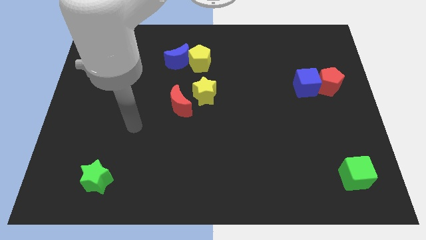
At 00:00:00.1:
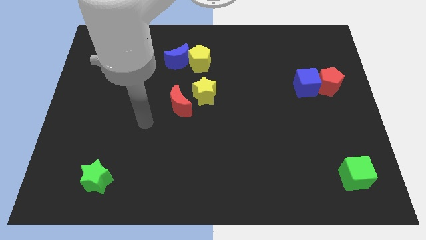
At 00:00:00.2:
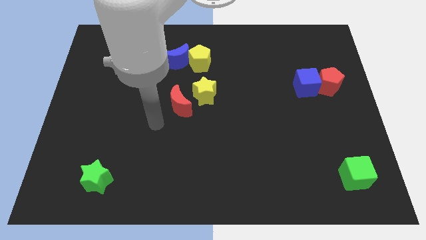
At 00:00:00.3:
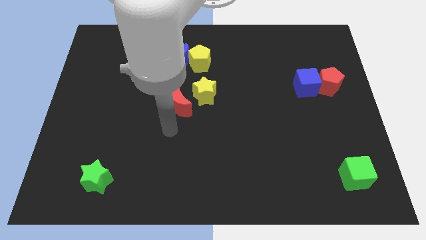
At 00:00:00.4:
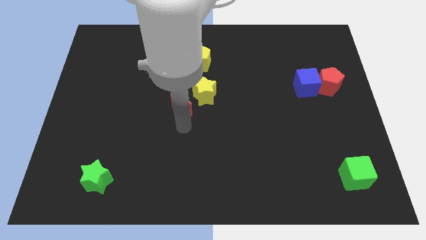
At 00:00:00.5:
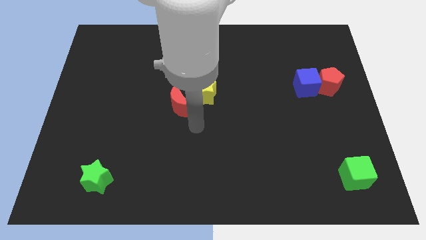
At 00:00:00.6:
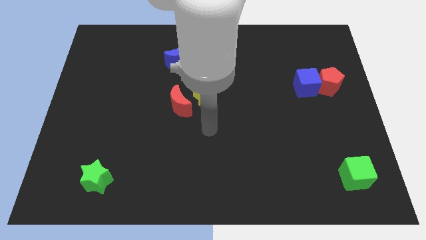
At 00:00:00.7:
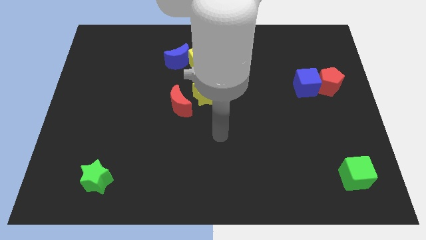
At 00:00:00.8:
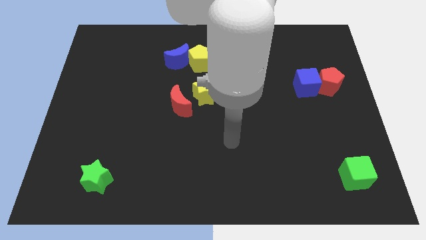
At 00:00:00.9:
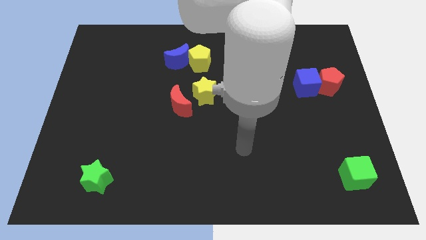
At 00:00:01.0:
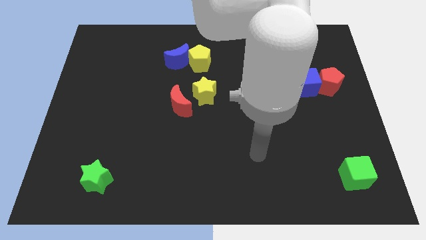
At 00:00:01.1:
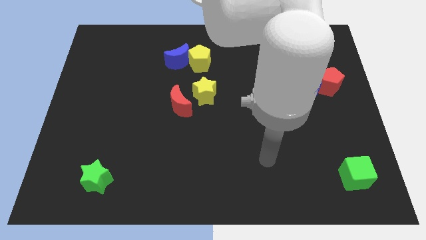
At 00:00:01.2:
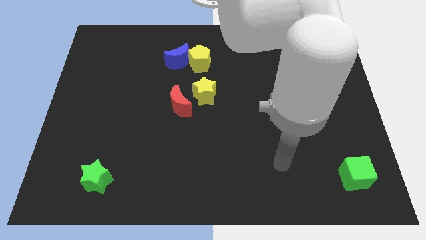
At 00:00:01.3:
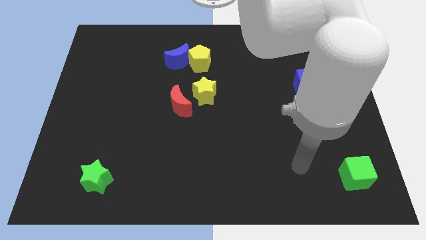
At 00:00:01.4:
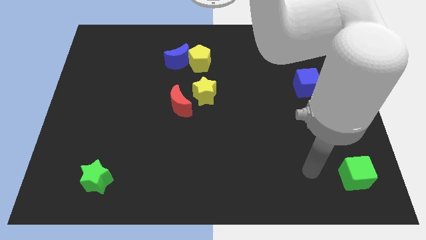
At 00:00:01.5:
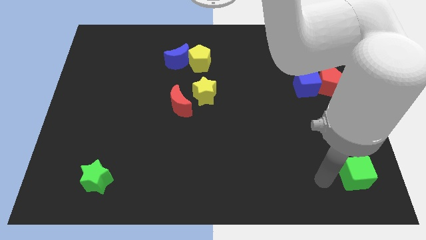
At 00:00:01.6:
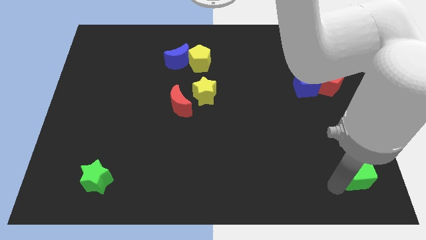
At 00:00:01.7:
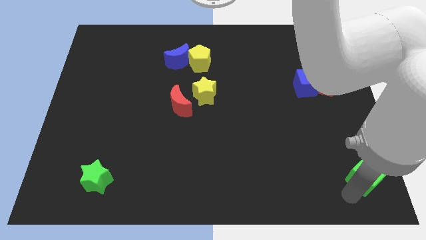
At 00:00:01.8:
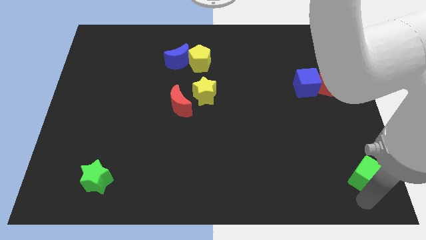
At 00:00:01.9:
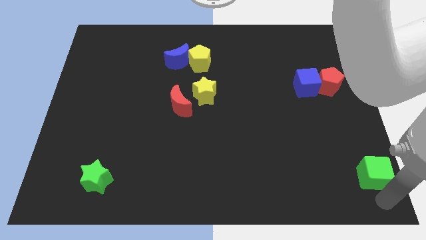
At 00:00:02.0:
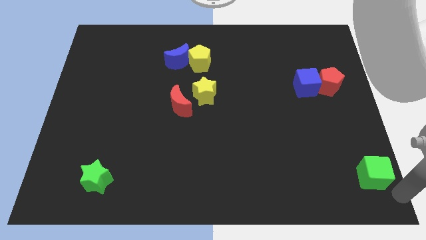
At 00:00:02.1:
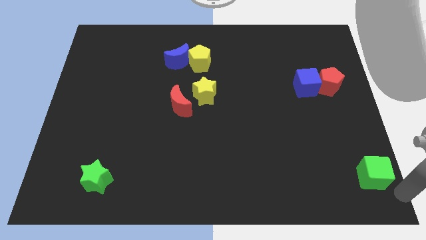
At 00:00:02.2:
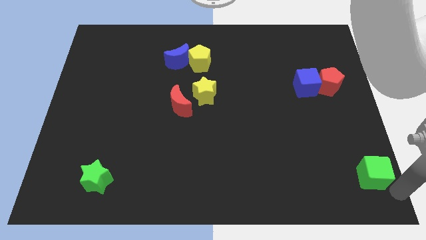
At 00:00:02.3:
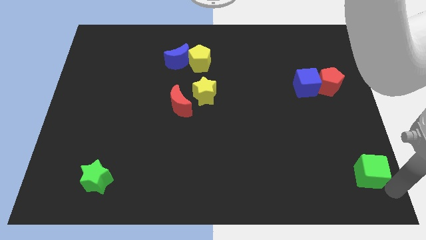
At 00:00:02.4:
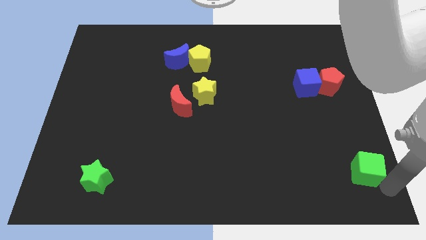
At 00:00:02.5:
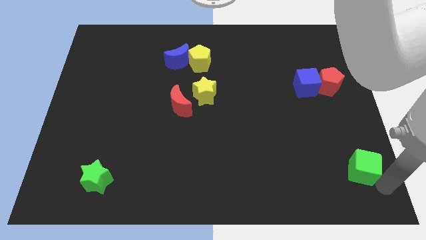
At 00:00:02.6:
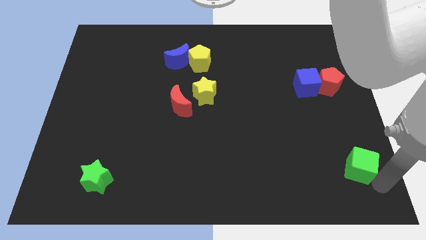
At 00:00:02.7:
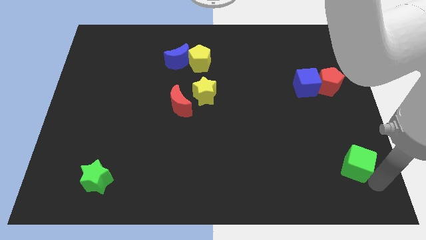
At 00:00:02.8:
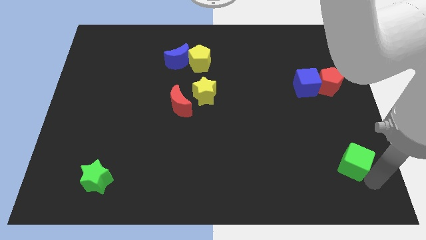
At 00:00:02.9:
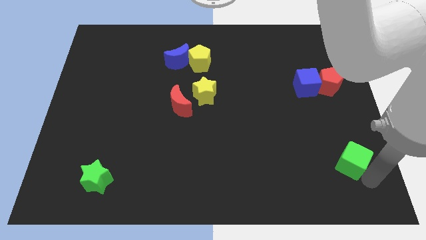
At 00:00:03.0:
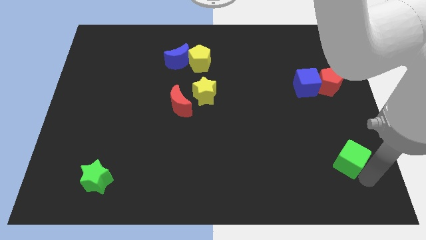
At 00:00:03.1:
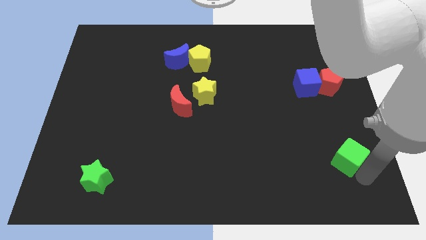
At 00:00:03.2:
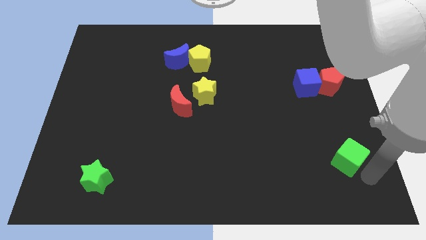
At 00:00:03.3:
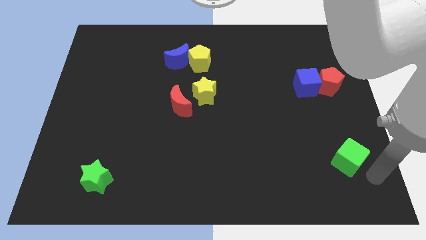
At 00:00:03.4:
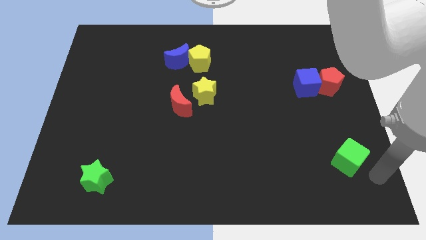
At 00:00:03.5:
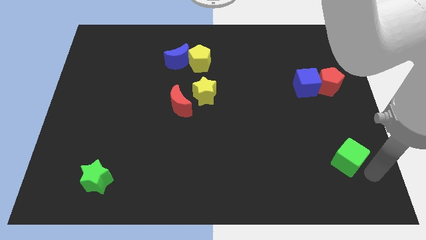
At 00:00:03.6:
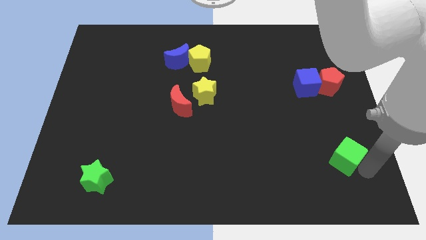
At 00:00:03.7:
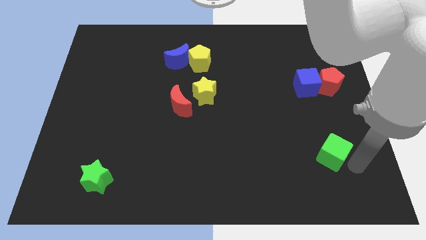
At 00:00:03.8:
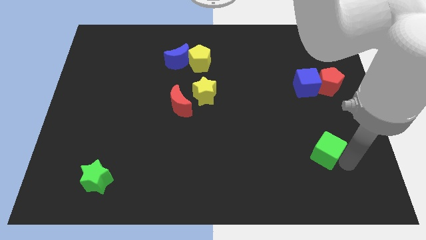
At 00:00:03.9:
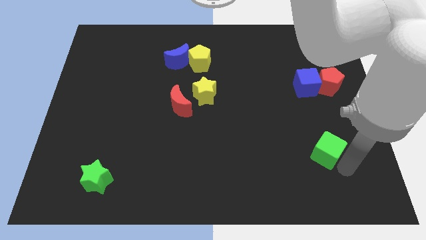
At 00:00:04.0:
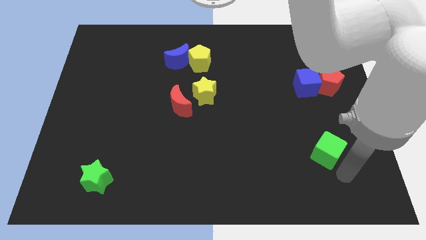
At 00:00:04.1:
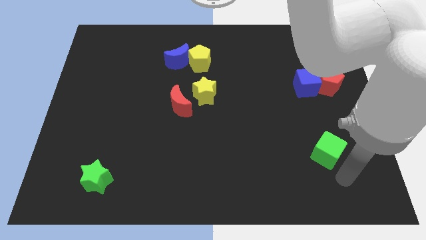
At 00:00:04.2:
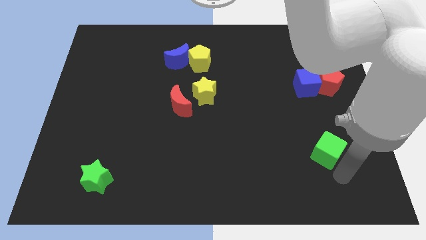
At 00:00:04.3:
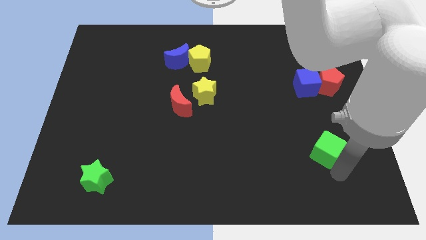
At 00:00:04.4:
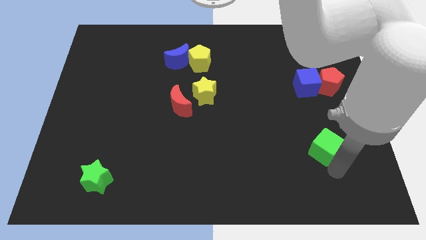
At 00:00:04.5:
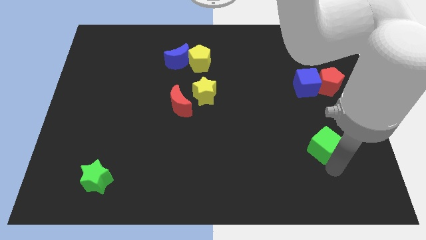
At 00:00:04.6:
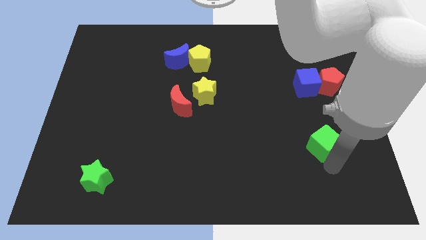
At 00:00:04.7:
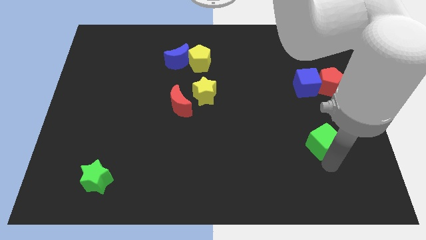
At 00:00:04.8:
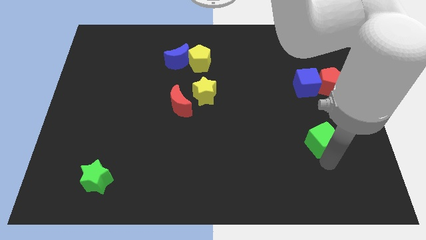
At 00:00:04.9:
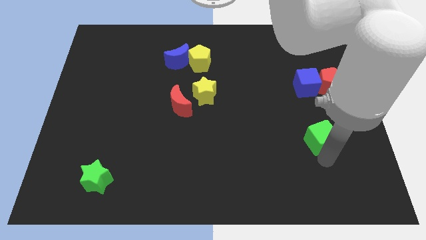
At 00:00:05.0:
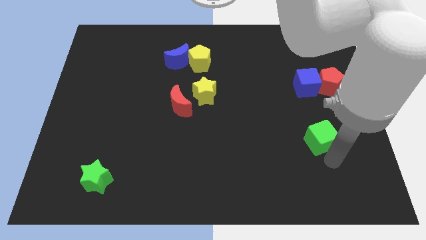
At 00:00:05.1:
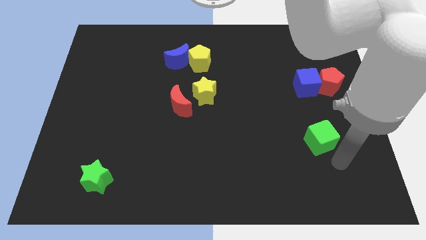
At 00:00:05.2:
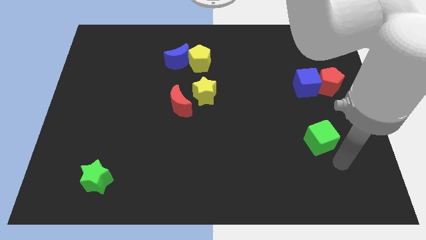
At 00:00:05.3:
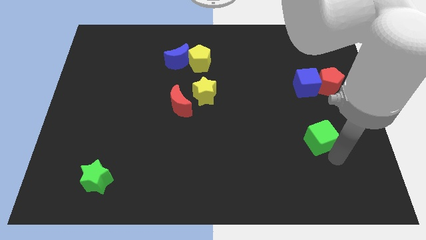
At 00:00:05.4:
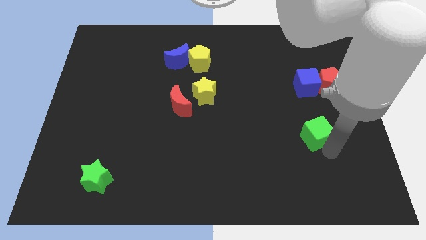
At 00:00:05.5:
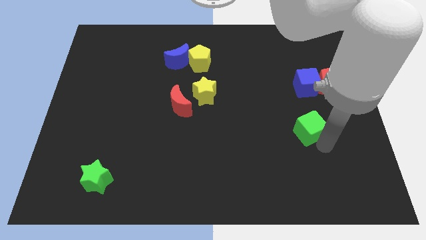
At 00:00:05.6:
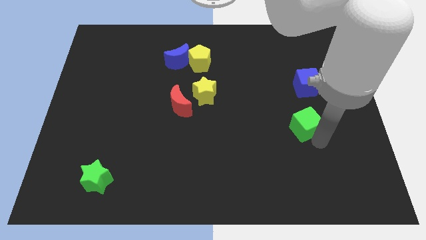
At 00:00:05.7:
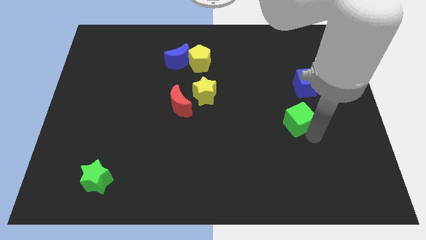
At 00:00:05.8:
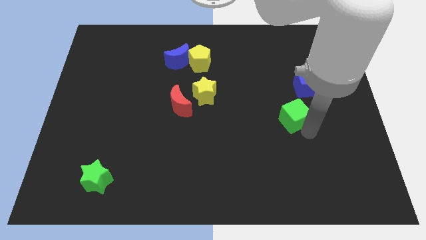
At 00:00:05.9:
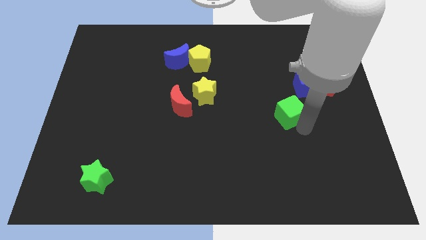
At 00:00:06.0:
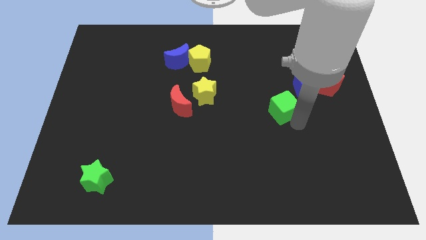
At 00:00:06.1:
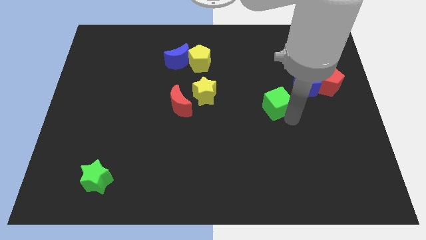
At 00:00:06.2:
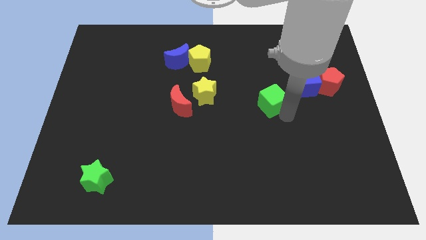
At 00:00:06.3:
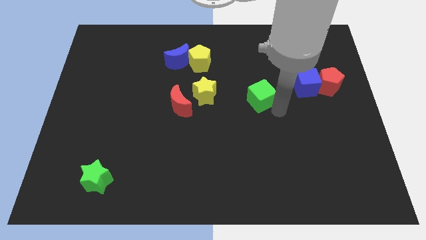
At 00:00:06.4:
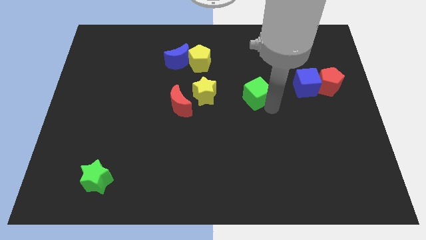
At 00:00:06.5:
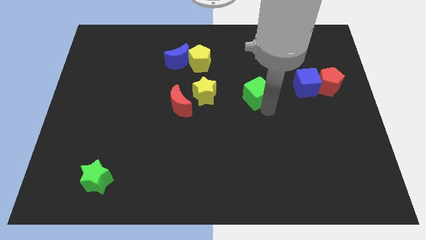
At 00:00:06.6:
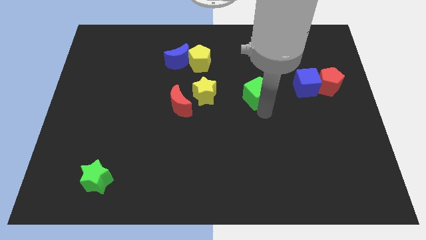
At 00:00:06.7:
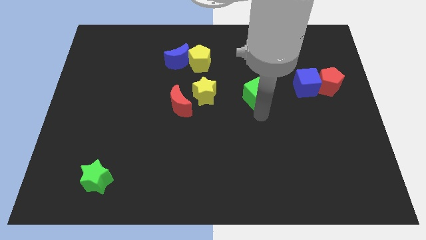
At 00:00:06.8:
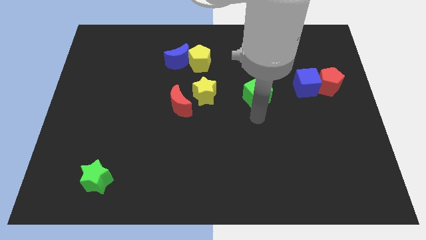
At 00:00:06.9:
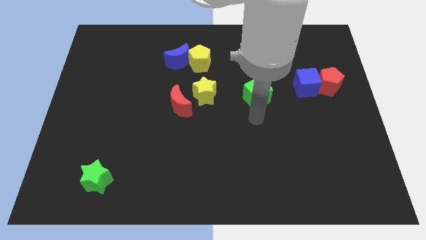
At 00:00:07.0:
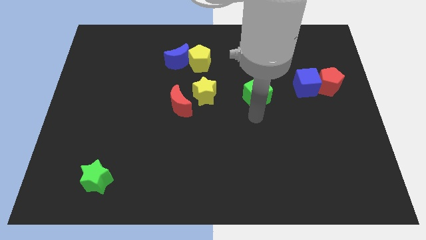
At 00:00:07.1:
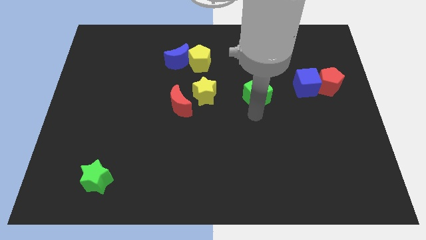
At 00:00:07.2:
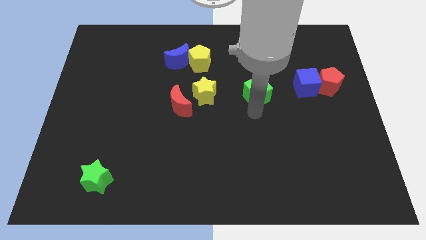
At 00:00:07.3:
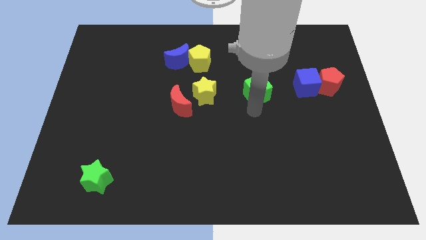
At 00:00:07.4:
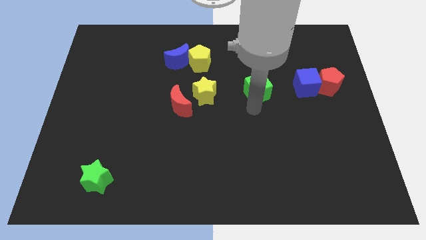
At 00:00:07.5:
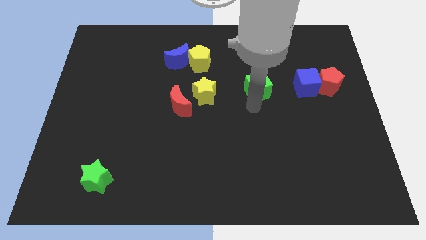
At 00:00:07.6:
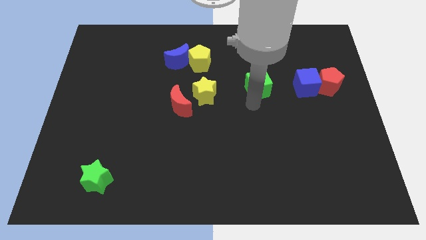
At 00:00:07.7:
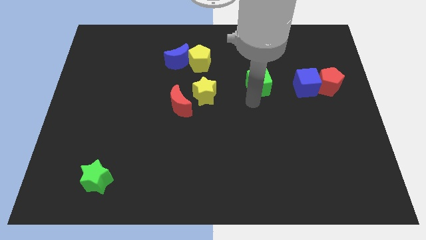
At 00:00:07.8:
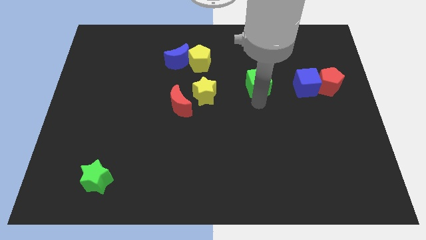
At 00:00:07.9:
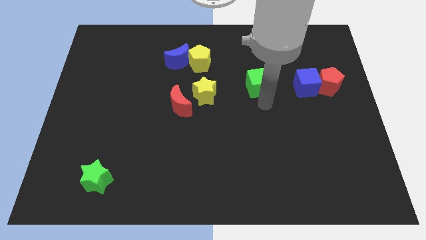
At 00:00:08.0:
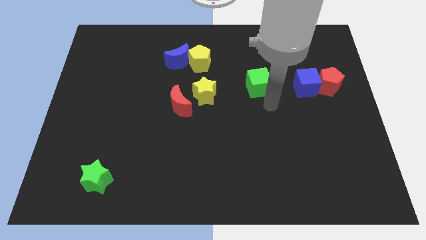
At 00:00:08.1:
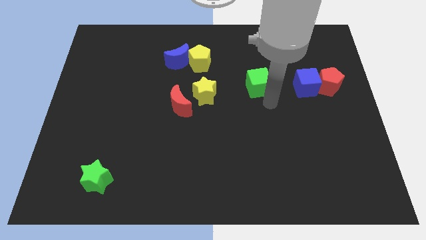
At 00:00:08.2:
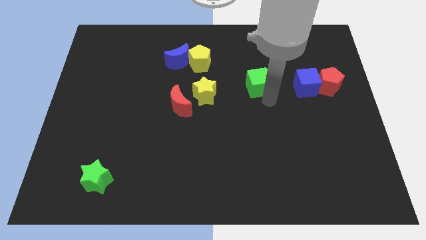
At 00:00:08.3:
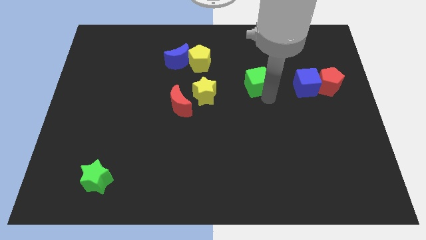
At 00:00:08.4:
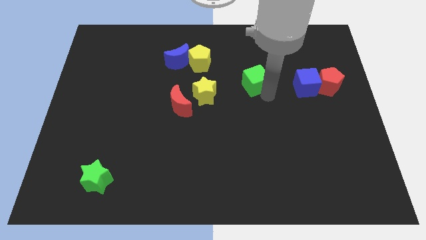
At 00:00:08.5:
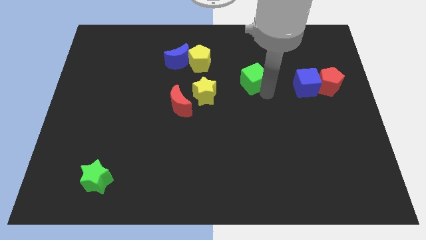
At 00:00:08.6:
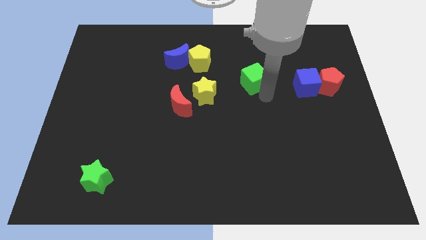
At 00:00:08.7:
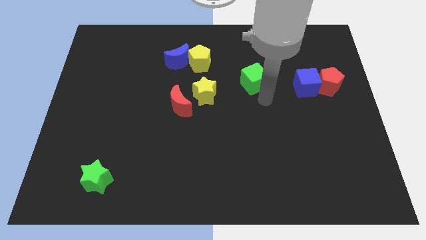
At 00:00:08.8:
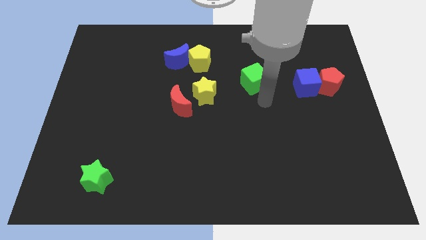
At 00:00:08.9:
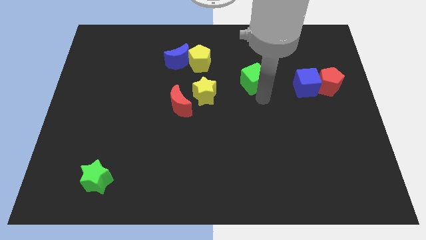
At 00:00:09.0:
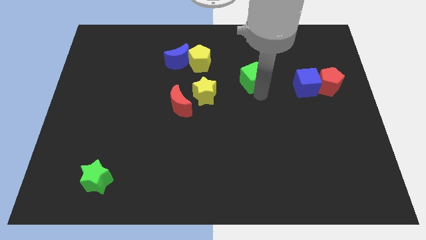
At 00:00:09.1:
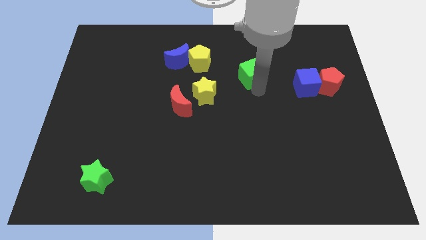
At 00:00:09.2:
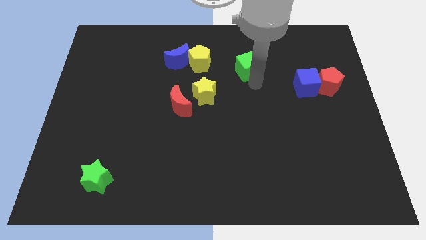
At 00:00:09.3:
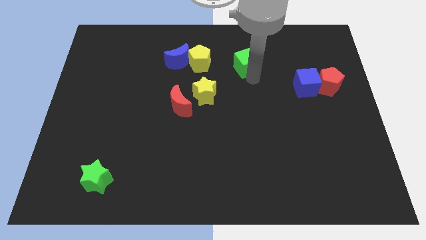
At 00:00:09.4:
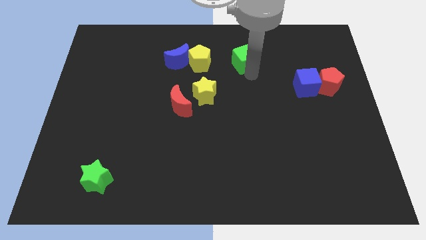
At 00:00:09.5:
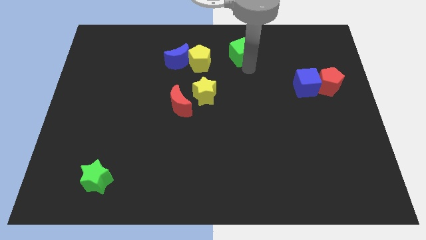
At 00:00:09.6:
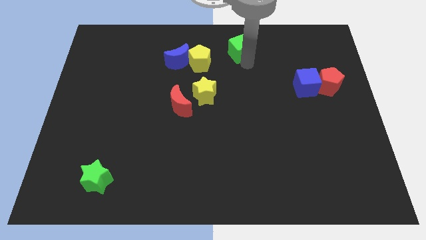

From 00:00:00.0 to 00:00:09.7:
put the green cube to the top
